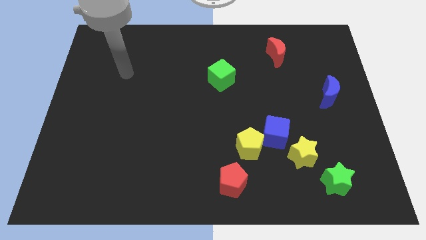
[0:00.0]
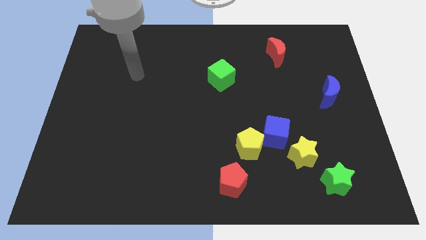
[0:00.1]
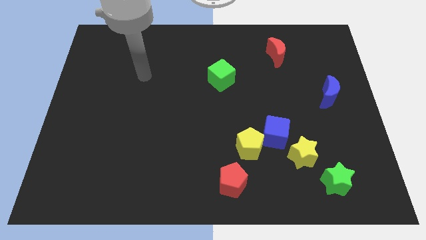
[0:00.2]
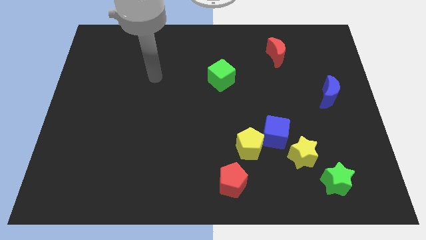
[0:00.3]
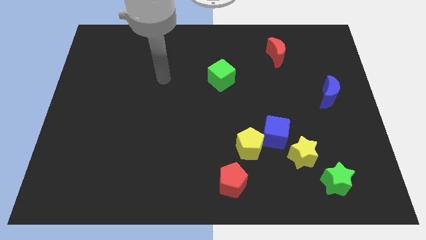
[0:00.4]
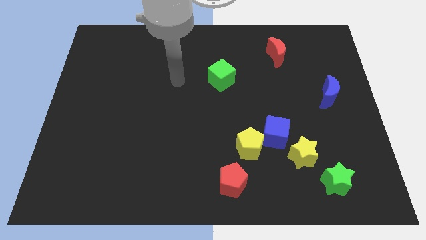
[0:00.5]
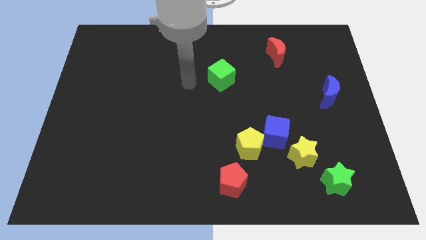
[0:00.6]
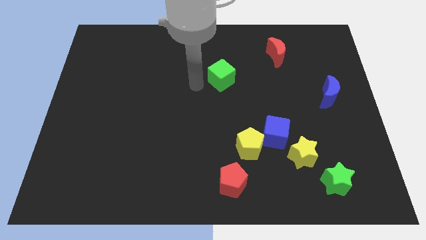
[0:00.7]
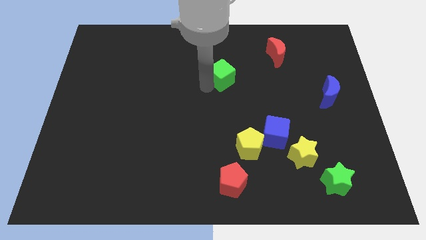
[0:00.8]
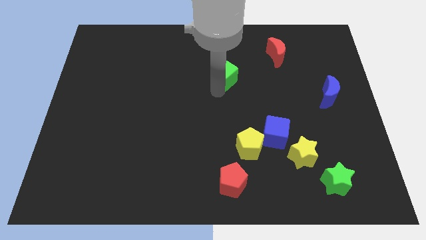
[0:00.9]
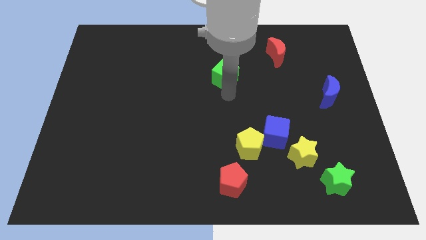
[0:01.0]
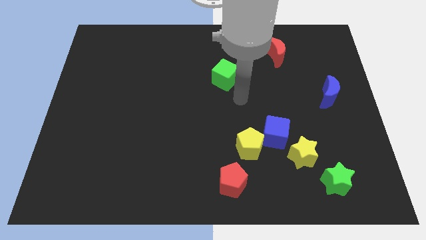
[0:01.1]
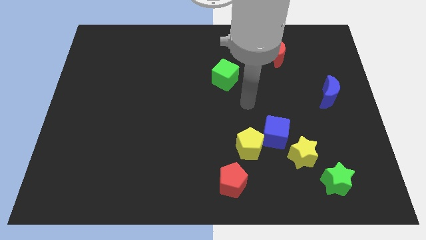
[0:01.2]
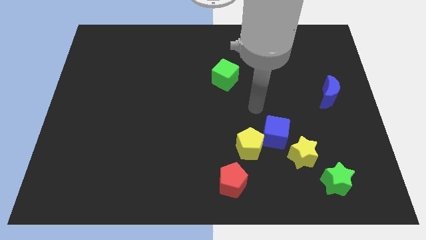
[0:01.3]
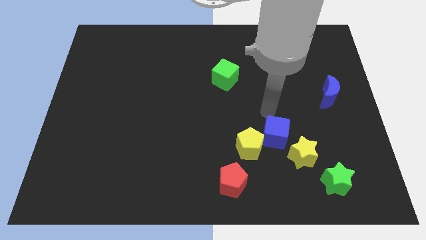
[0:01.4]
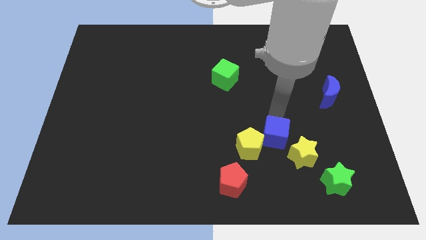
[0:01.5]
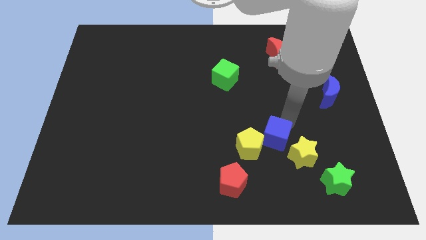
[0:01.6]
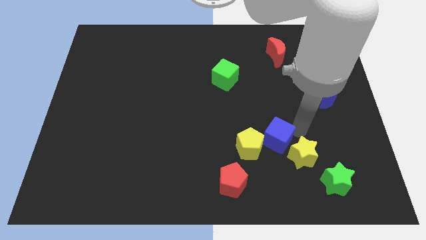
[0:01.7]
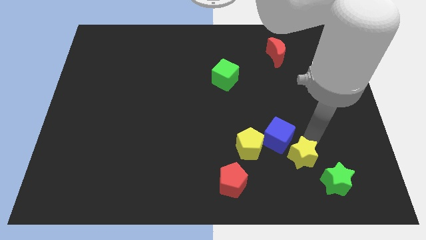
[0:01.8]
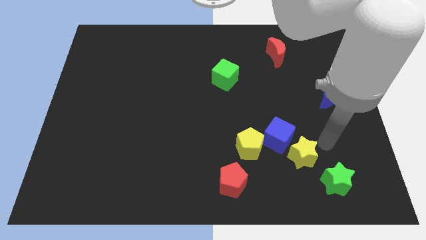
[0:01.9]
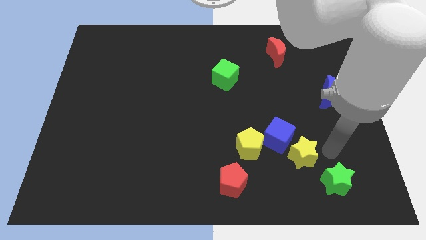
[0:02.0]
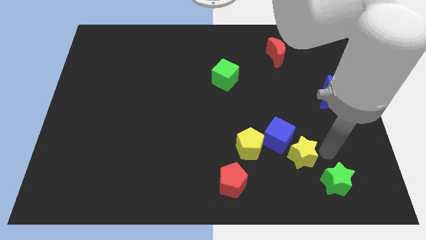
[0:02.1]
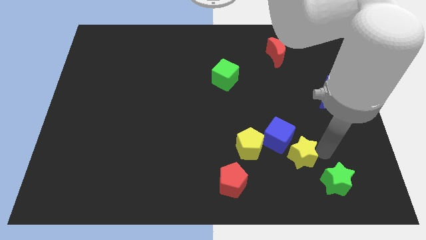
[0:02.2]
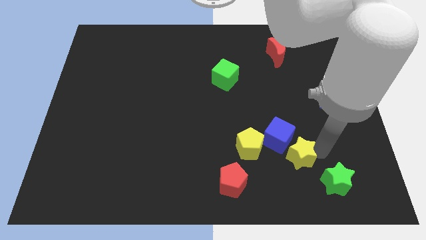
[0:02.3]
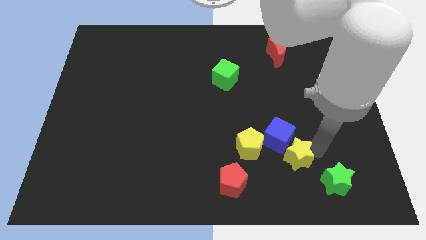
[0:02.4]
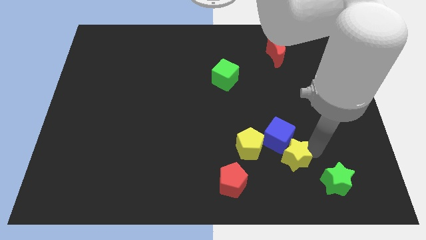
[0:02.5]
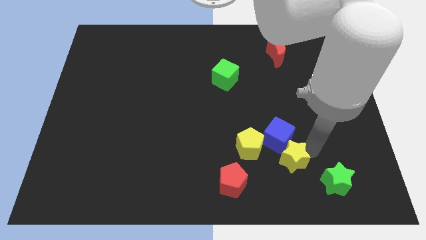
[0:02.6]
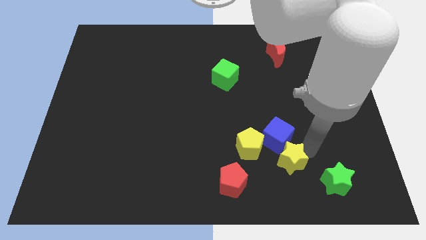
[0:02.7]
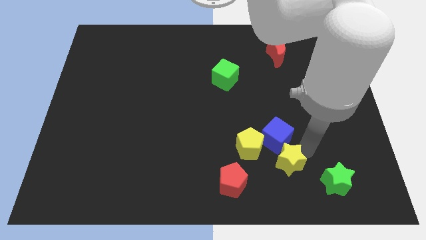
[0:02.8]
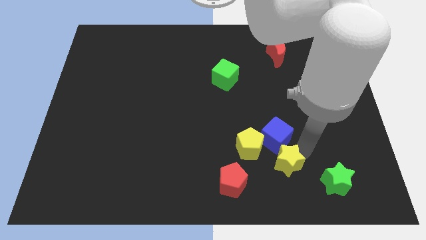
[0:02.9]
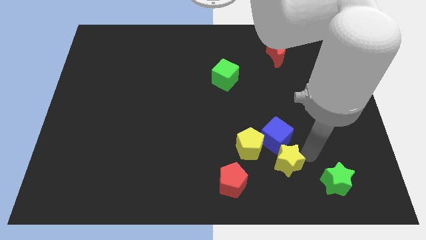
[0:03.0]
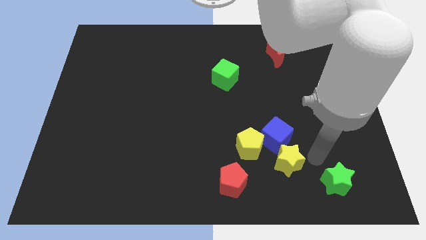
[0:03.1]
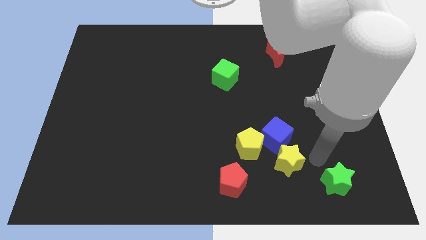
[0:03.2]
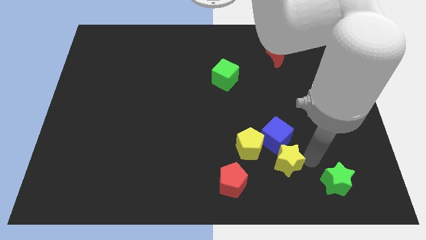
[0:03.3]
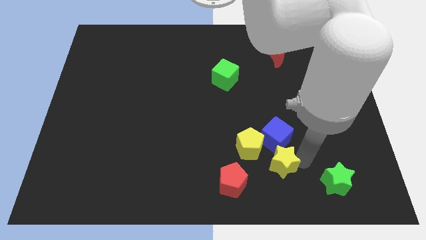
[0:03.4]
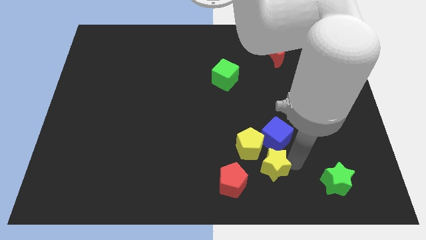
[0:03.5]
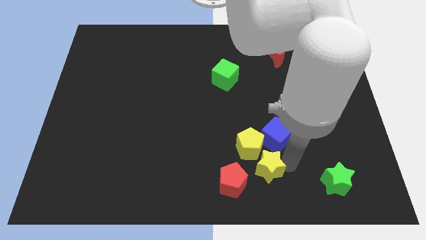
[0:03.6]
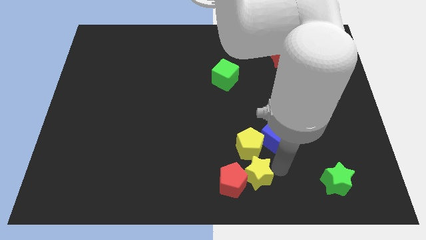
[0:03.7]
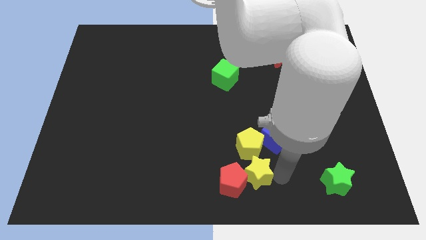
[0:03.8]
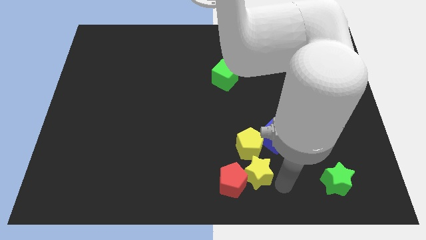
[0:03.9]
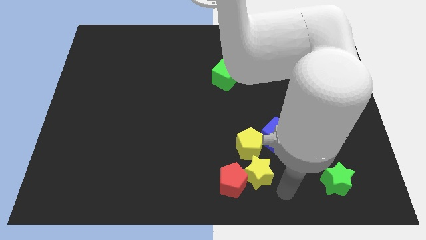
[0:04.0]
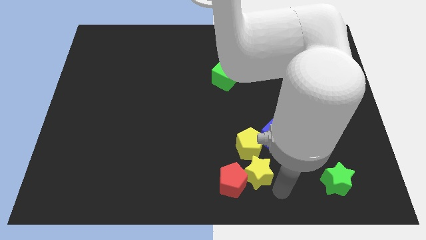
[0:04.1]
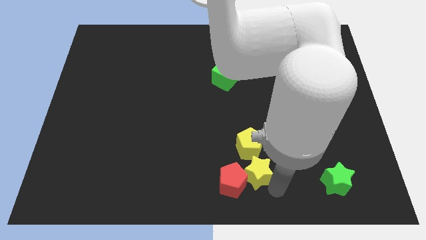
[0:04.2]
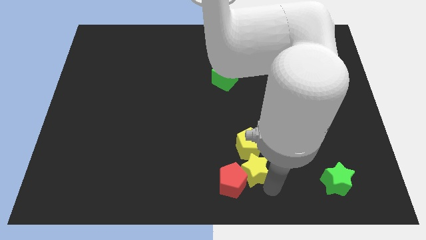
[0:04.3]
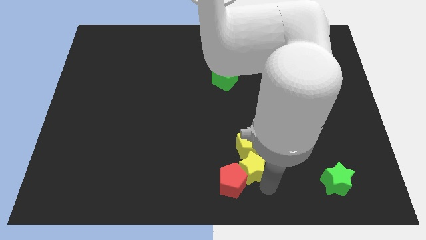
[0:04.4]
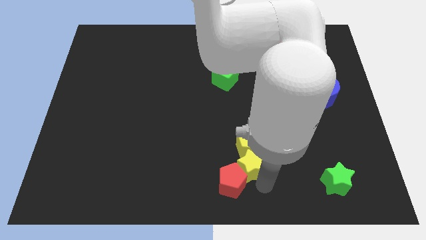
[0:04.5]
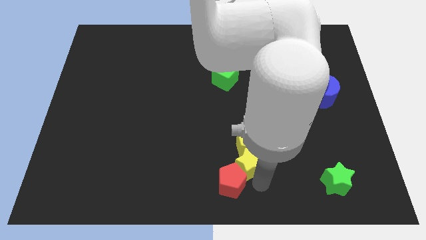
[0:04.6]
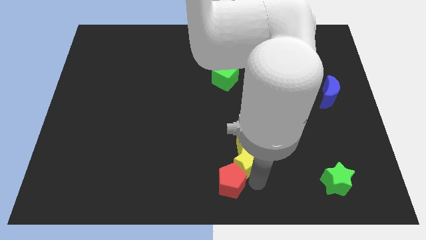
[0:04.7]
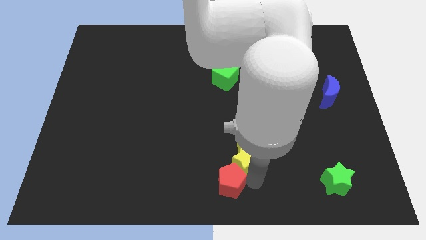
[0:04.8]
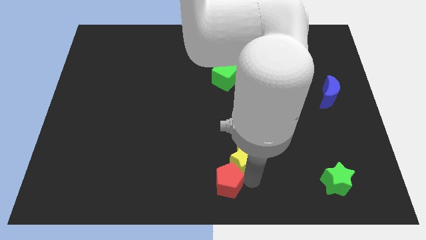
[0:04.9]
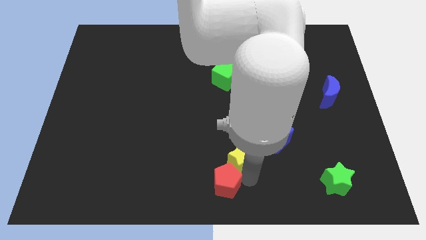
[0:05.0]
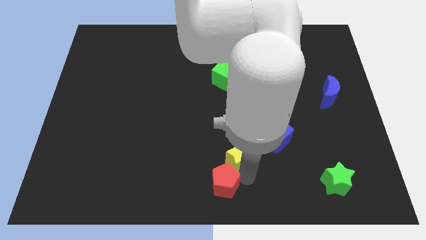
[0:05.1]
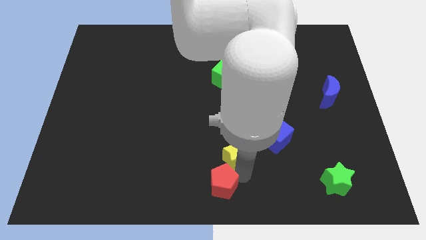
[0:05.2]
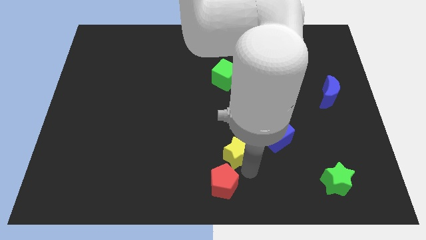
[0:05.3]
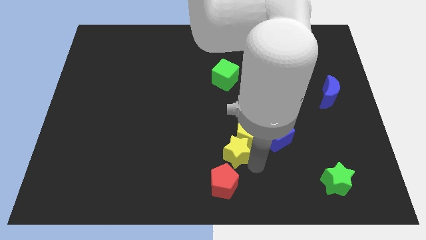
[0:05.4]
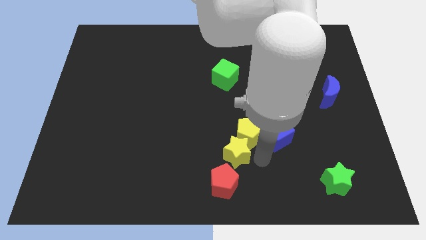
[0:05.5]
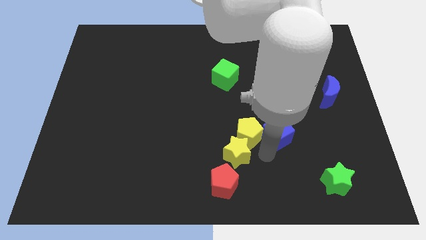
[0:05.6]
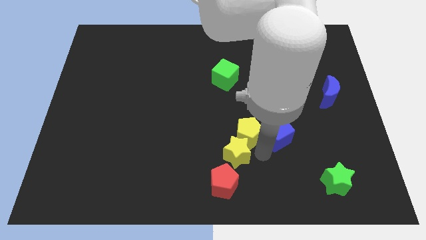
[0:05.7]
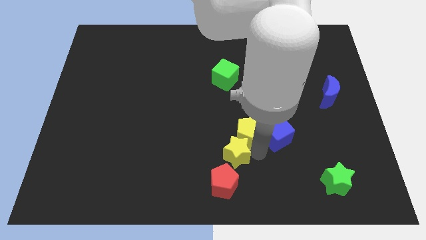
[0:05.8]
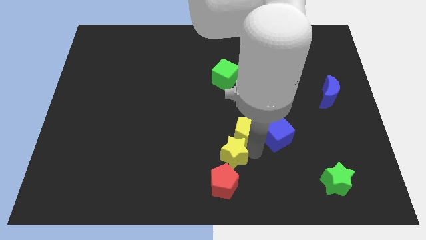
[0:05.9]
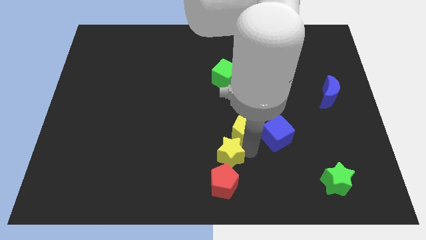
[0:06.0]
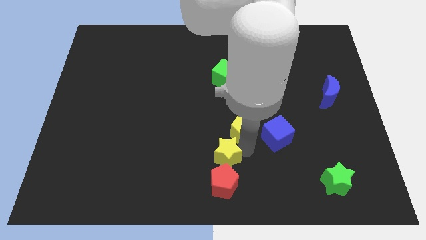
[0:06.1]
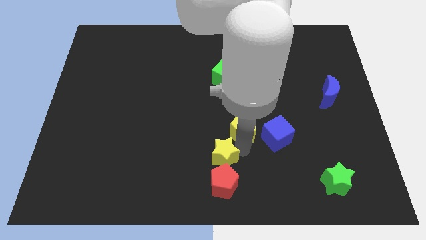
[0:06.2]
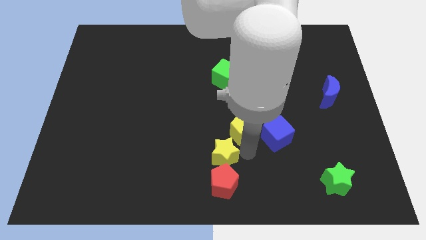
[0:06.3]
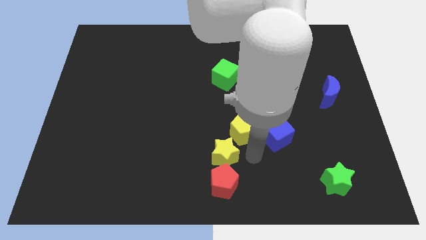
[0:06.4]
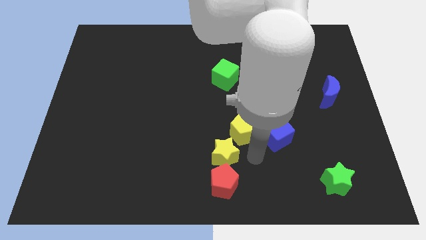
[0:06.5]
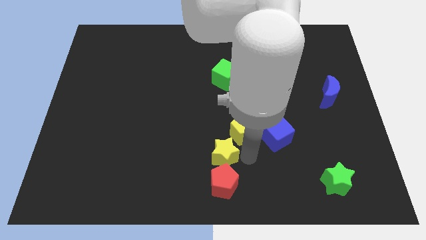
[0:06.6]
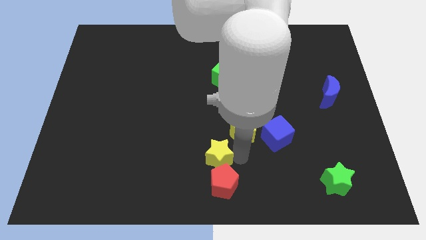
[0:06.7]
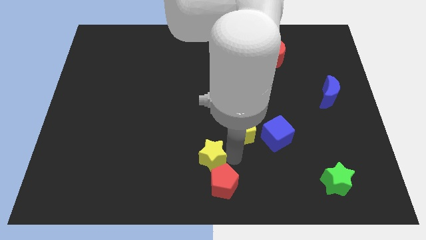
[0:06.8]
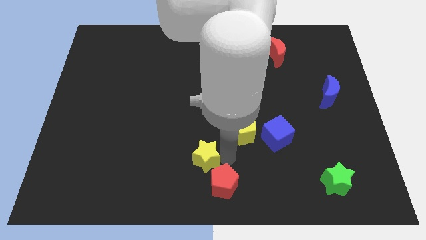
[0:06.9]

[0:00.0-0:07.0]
move the yellow star to the left

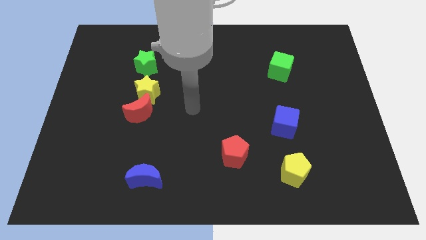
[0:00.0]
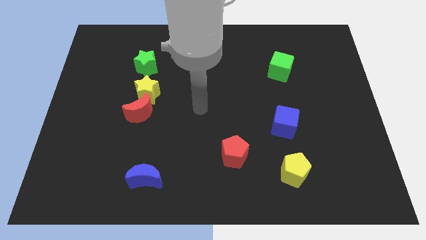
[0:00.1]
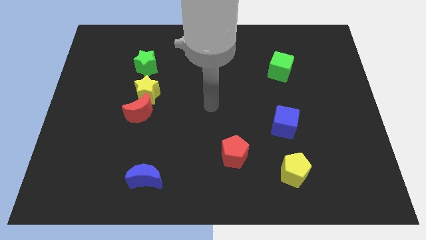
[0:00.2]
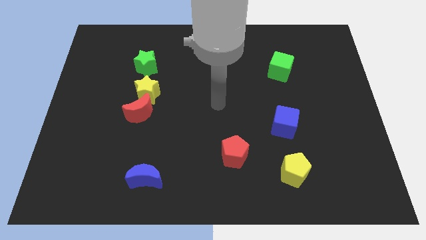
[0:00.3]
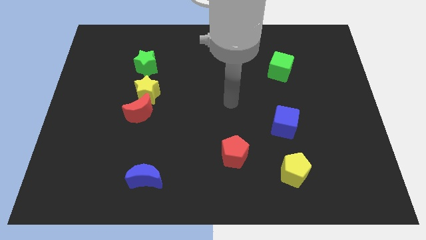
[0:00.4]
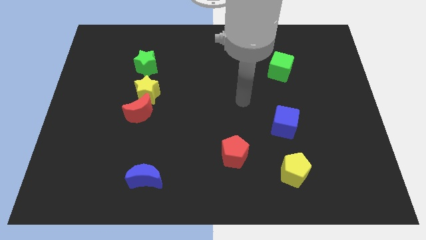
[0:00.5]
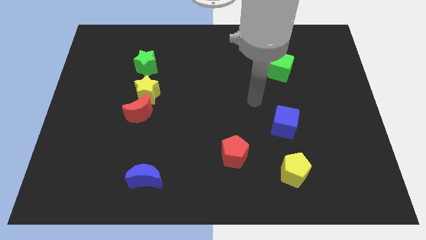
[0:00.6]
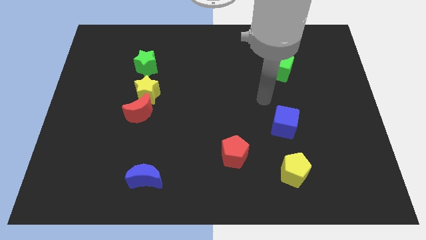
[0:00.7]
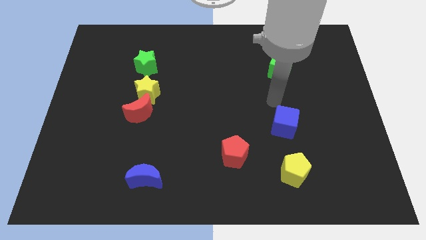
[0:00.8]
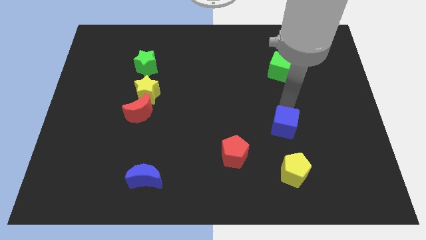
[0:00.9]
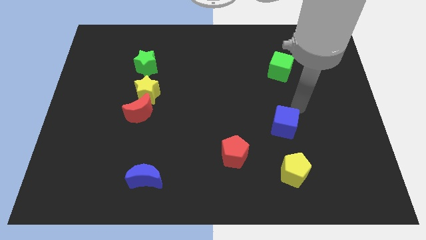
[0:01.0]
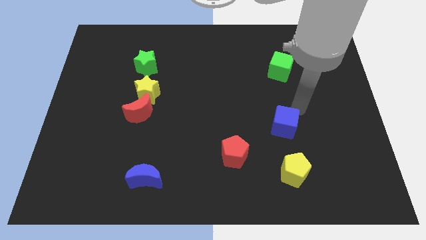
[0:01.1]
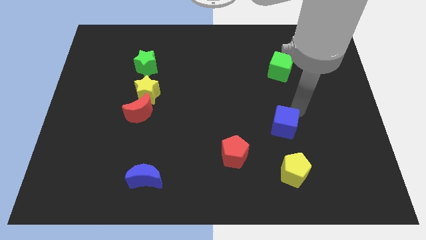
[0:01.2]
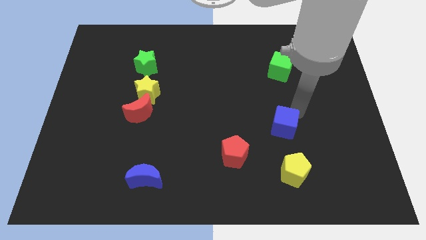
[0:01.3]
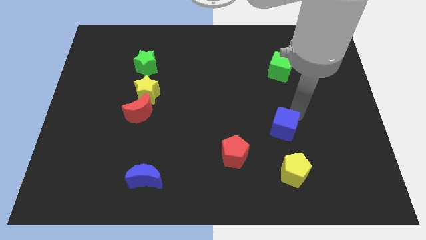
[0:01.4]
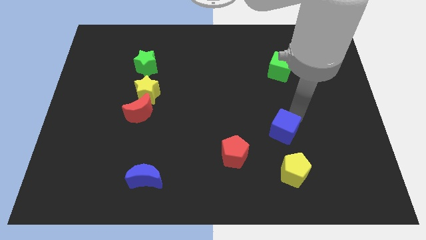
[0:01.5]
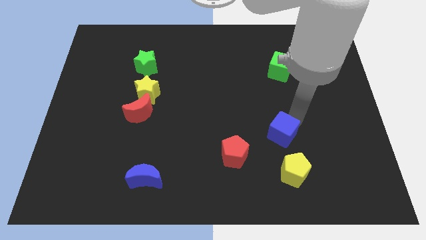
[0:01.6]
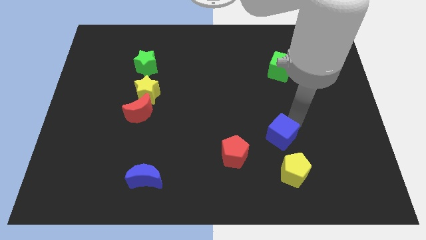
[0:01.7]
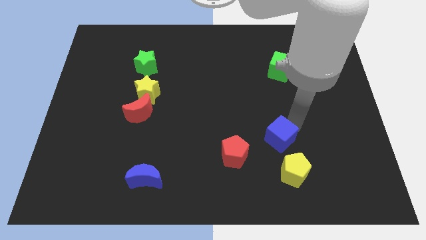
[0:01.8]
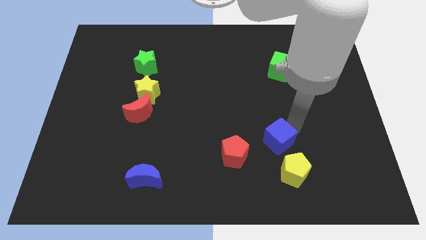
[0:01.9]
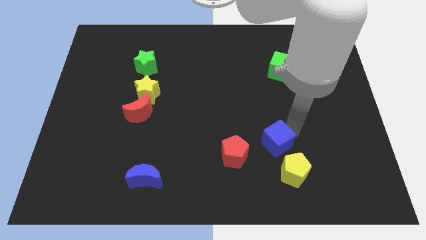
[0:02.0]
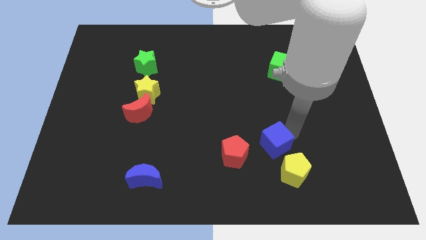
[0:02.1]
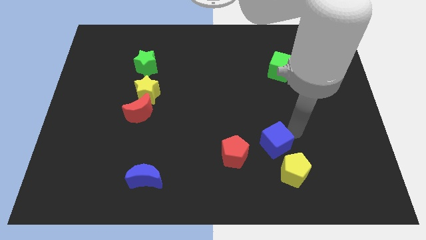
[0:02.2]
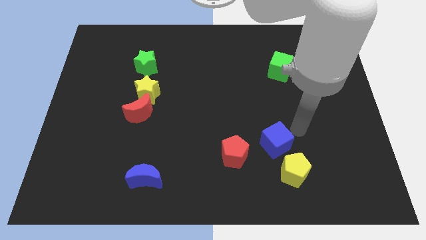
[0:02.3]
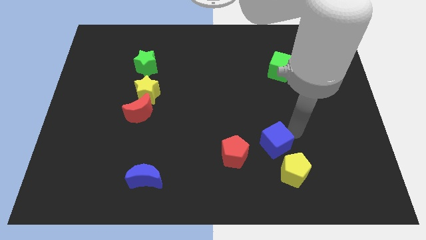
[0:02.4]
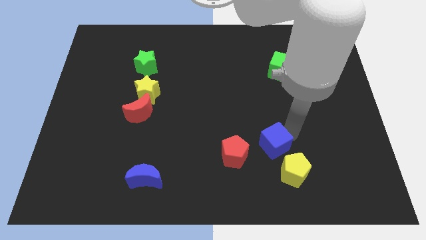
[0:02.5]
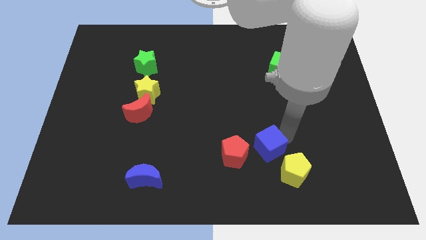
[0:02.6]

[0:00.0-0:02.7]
slightly move the blue cube downwards and then to the left
